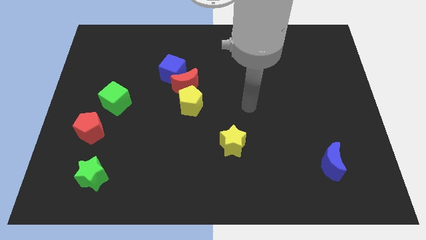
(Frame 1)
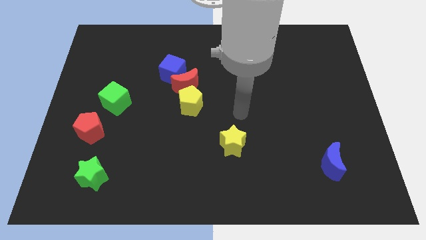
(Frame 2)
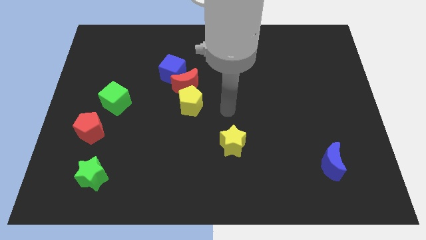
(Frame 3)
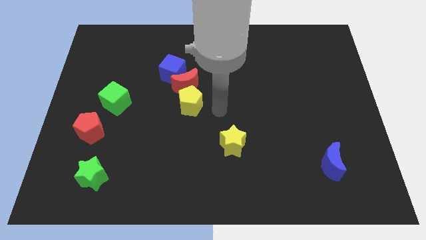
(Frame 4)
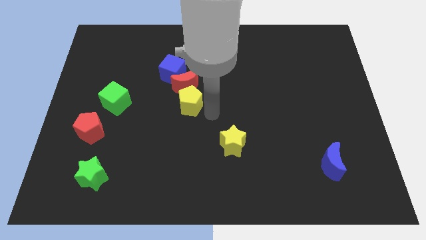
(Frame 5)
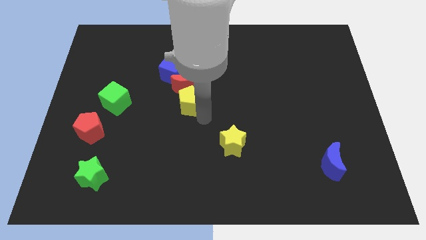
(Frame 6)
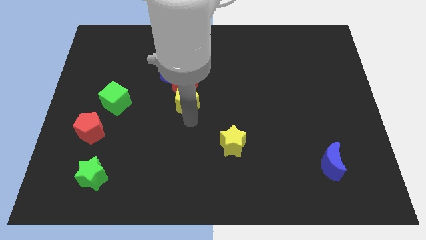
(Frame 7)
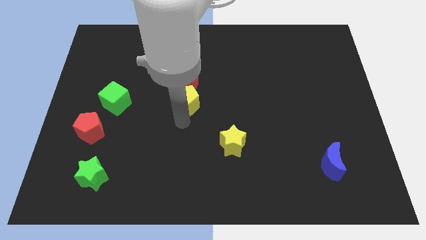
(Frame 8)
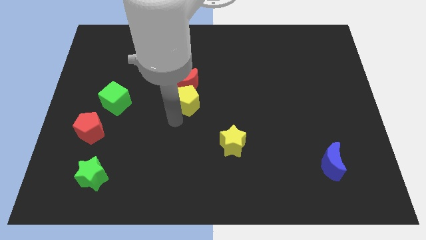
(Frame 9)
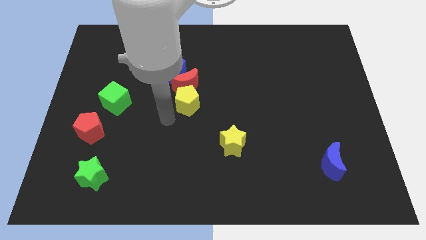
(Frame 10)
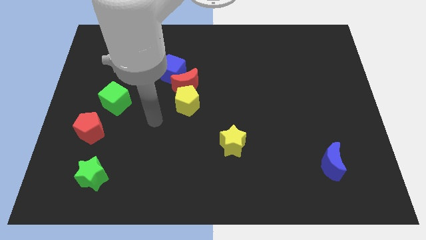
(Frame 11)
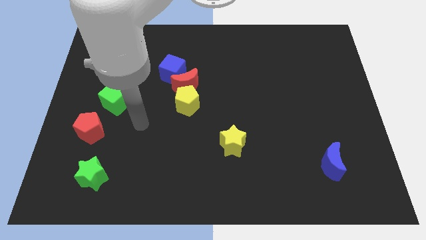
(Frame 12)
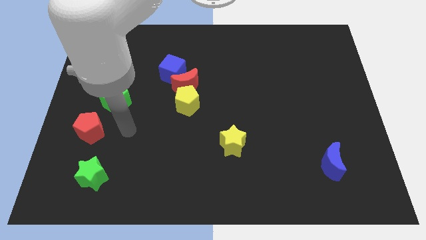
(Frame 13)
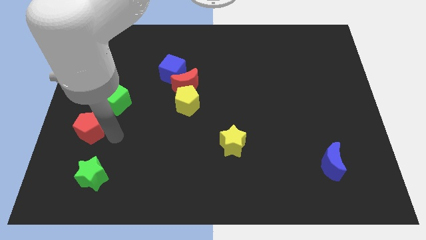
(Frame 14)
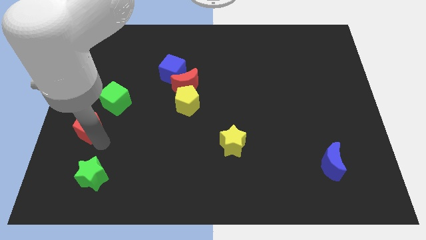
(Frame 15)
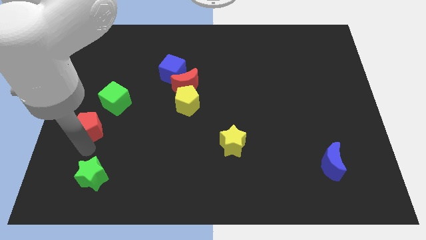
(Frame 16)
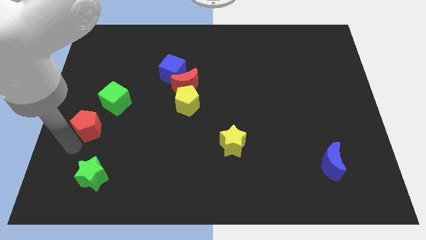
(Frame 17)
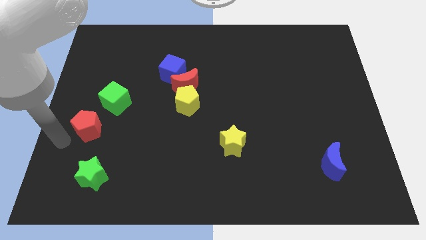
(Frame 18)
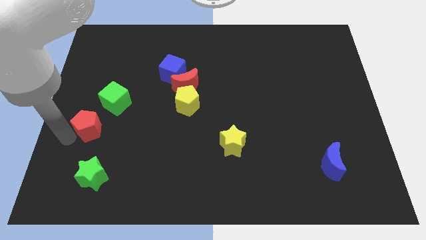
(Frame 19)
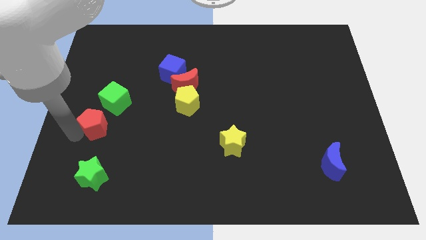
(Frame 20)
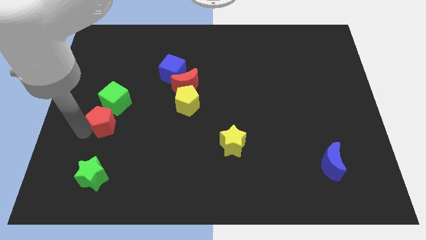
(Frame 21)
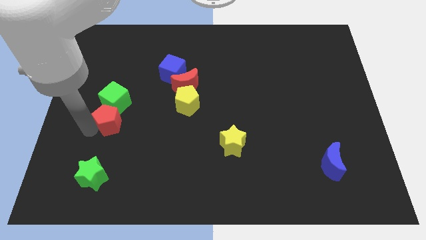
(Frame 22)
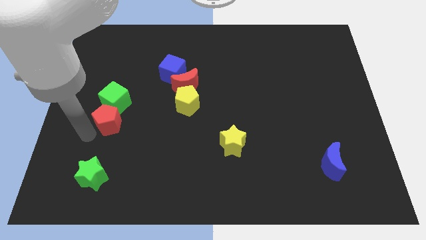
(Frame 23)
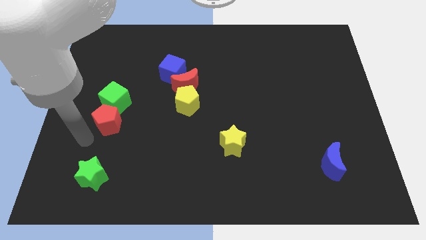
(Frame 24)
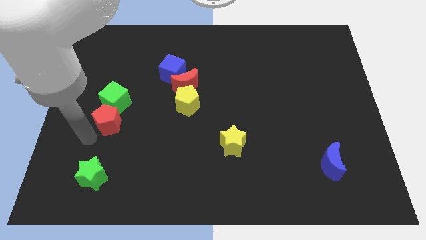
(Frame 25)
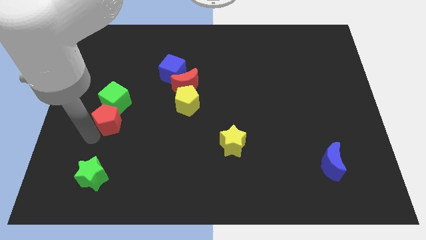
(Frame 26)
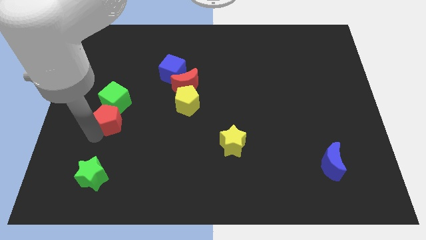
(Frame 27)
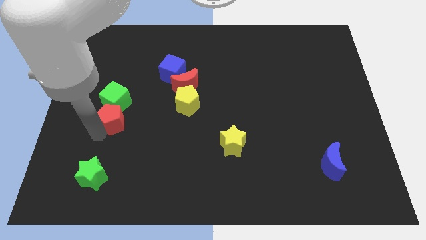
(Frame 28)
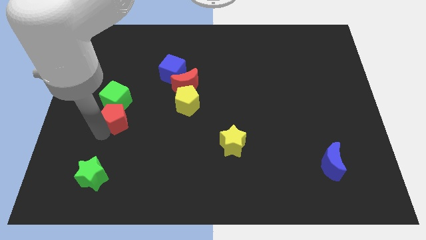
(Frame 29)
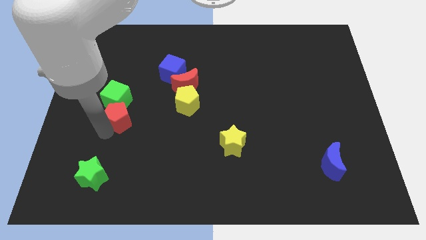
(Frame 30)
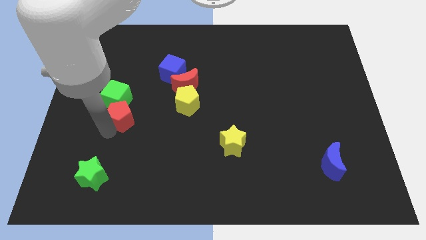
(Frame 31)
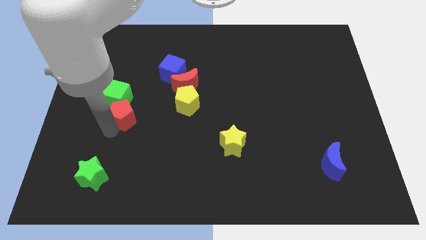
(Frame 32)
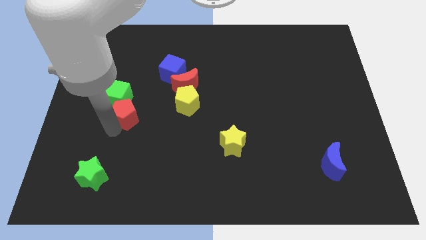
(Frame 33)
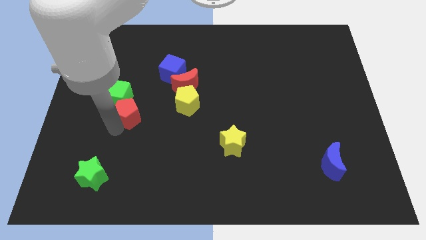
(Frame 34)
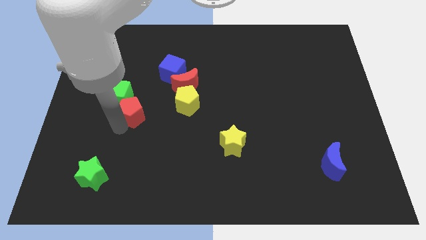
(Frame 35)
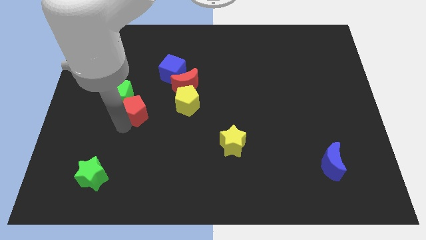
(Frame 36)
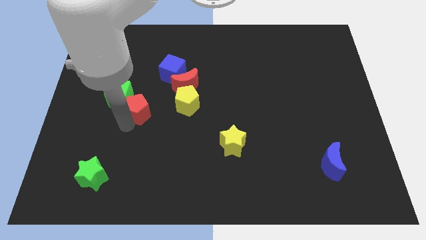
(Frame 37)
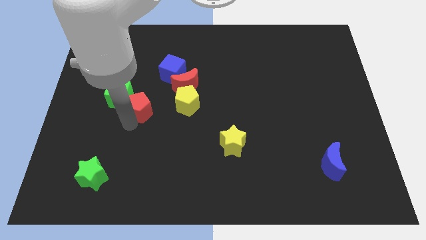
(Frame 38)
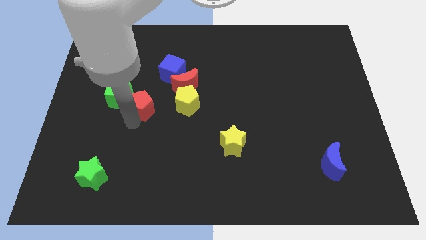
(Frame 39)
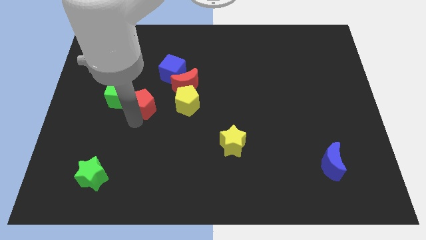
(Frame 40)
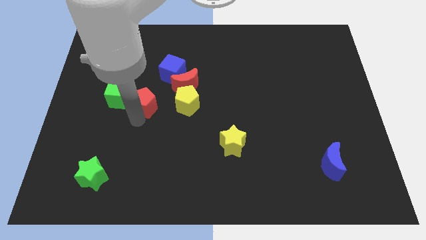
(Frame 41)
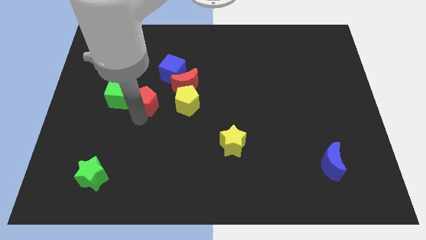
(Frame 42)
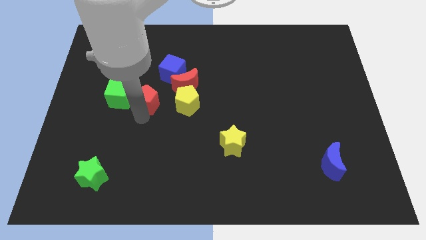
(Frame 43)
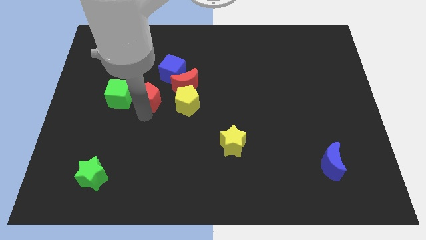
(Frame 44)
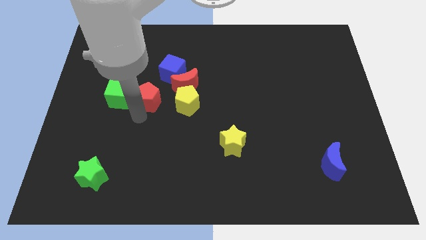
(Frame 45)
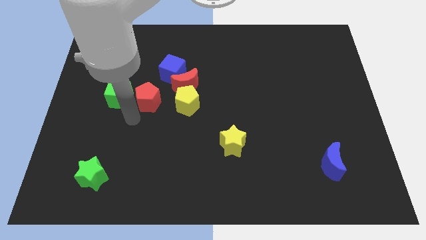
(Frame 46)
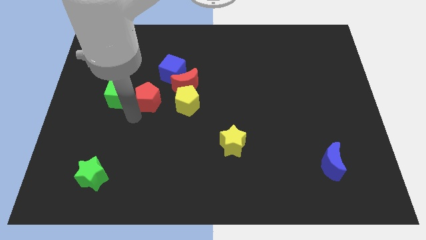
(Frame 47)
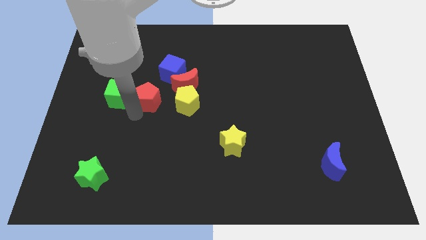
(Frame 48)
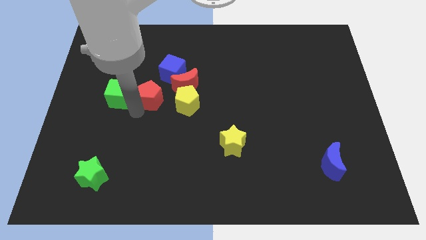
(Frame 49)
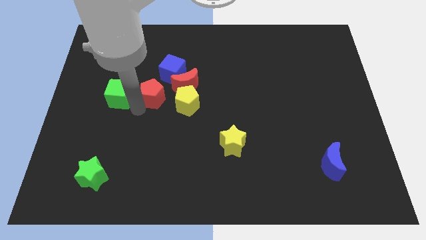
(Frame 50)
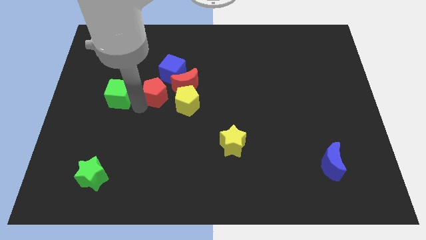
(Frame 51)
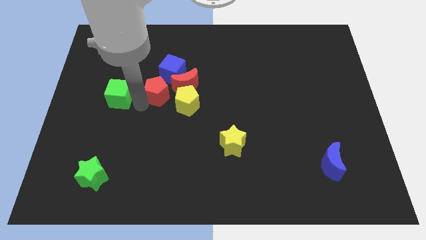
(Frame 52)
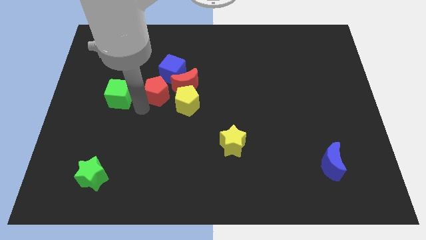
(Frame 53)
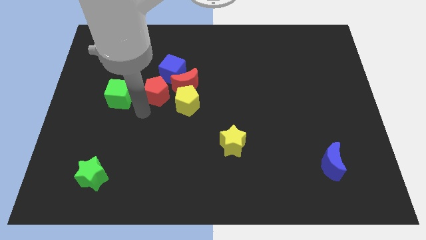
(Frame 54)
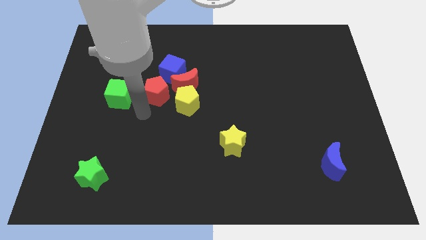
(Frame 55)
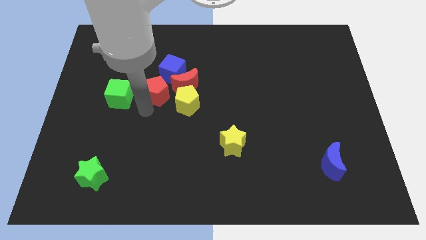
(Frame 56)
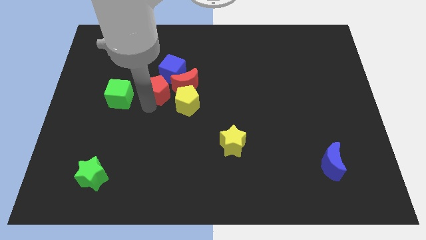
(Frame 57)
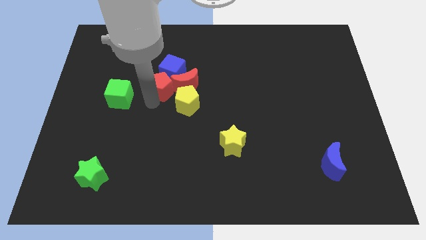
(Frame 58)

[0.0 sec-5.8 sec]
move the red pentagon towards the blue cube

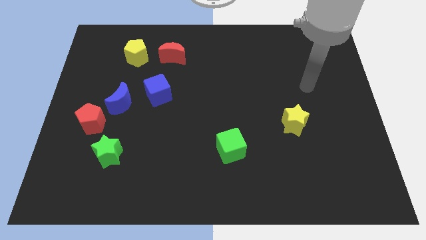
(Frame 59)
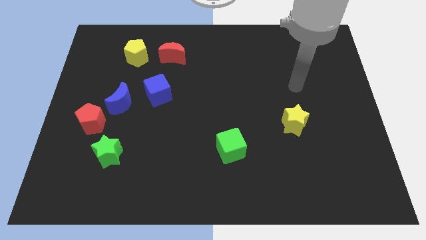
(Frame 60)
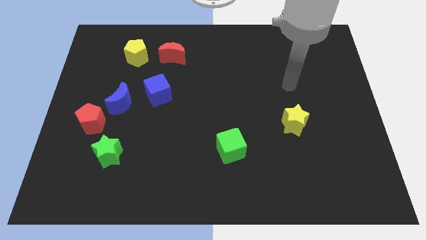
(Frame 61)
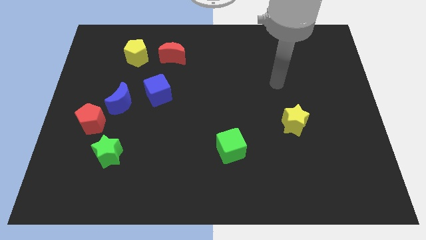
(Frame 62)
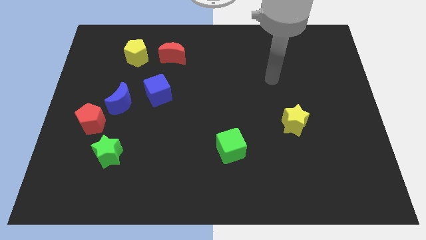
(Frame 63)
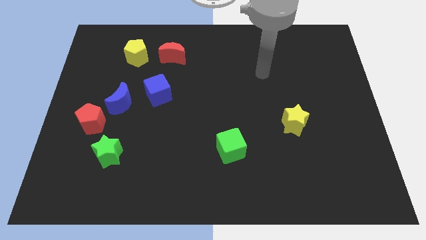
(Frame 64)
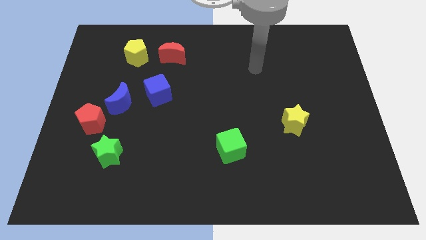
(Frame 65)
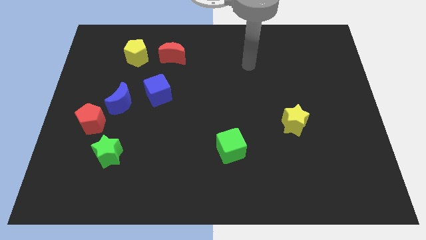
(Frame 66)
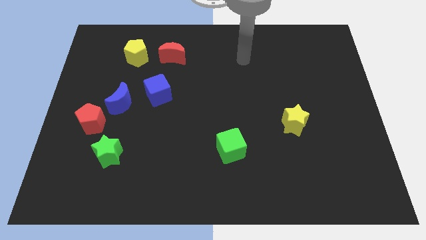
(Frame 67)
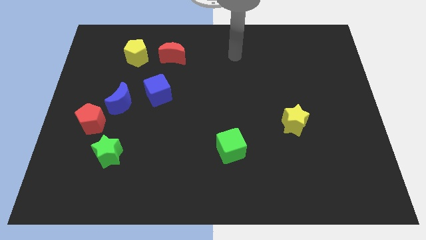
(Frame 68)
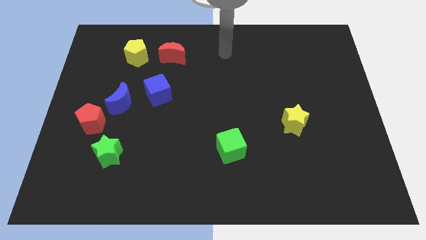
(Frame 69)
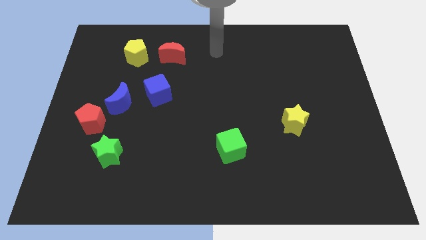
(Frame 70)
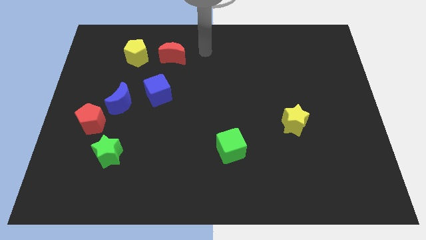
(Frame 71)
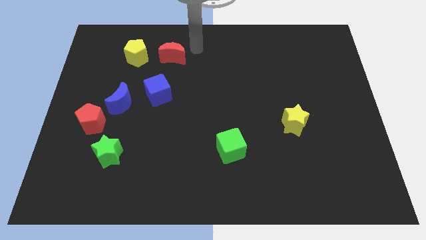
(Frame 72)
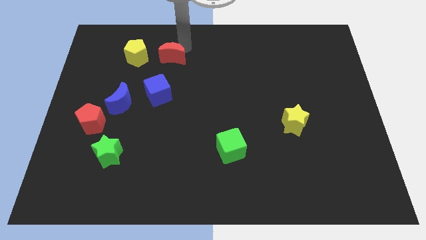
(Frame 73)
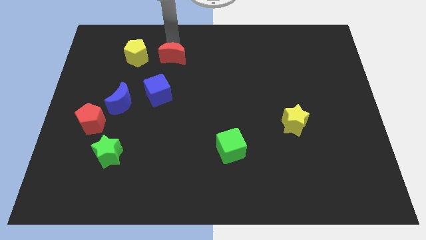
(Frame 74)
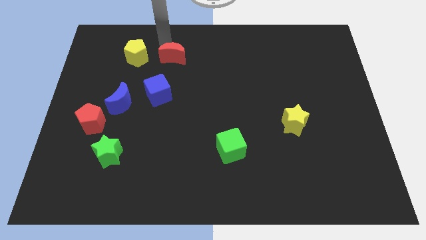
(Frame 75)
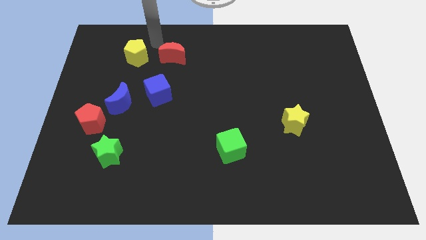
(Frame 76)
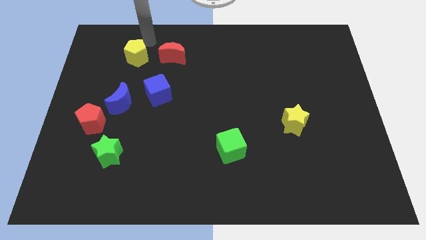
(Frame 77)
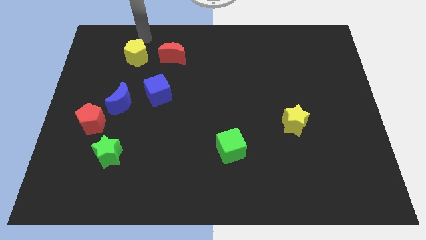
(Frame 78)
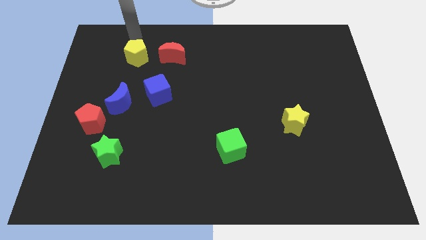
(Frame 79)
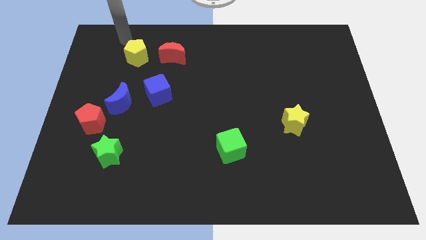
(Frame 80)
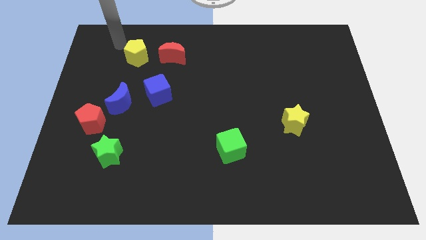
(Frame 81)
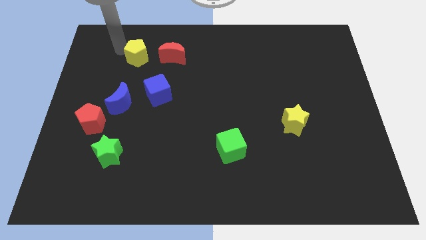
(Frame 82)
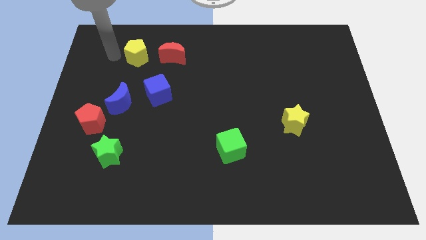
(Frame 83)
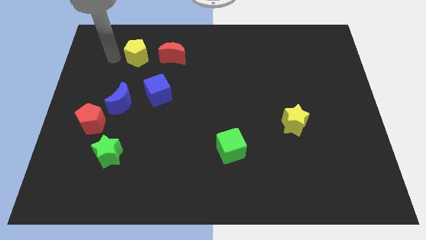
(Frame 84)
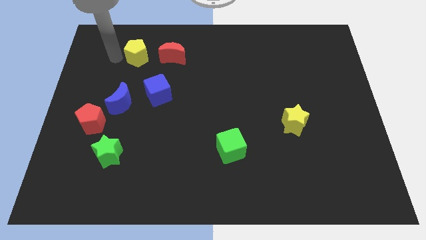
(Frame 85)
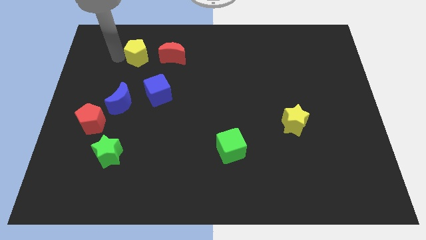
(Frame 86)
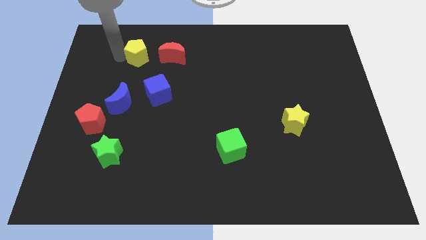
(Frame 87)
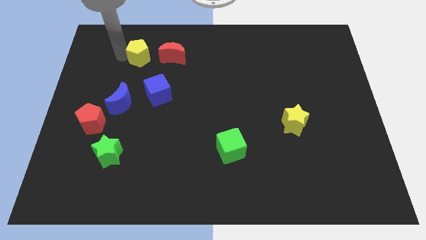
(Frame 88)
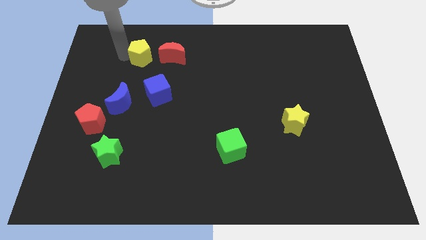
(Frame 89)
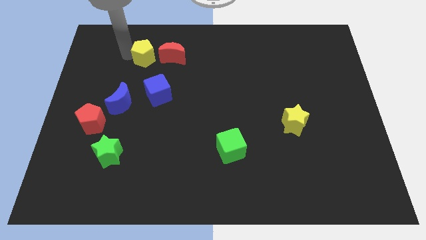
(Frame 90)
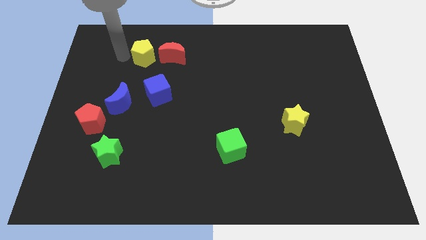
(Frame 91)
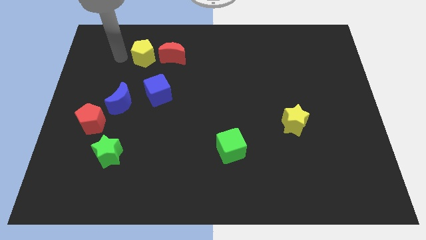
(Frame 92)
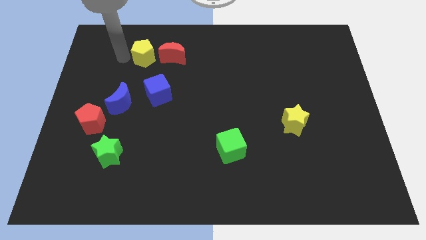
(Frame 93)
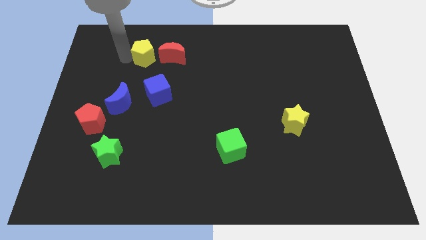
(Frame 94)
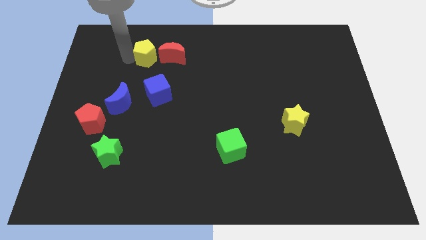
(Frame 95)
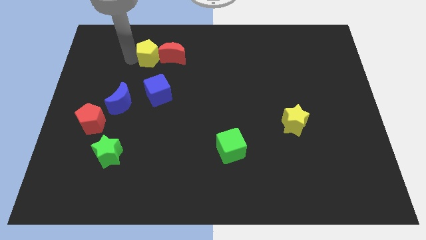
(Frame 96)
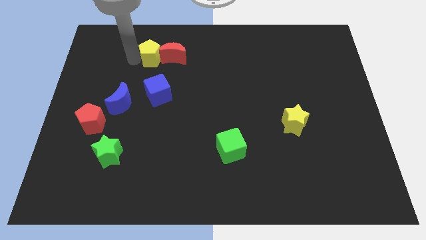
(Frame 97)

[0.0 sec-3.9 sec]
slide the yellow pentagon to the red moon
